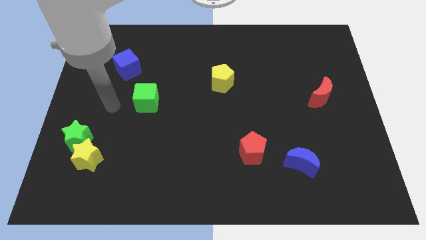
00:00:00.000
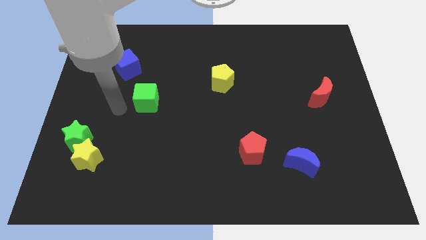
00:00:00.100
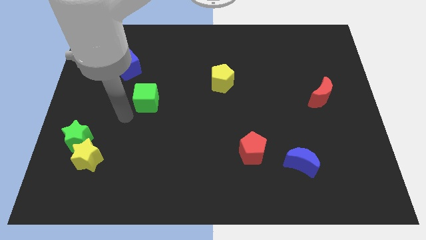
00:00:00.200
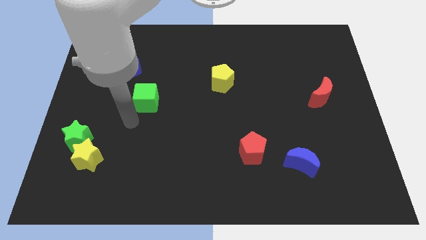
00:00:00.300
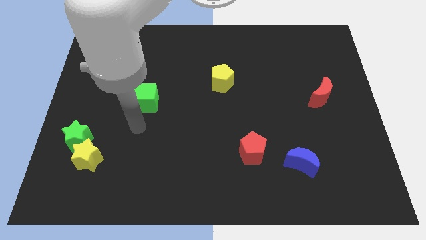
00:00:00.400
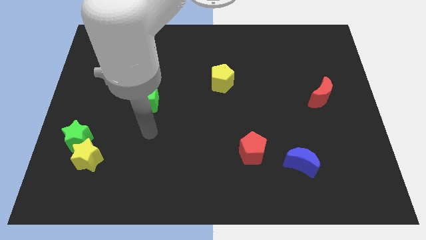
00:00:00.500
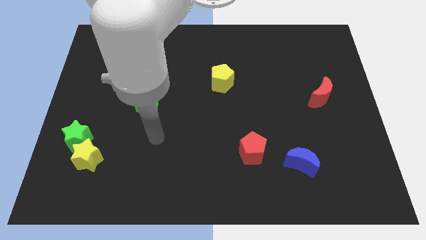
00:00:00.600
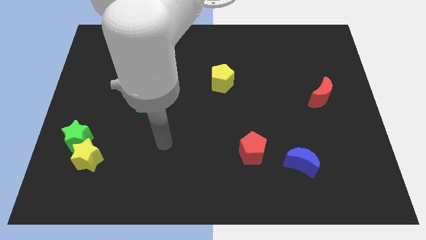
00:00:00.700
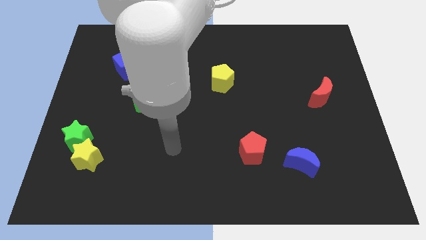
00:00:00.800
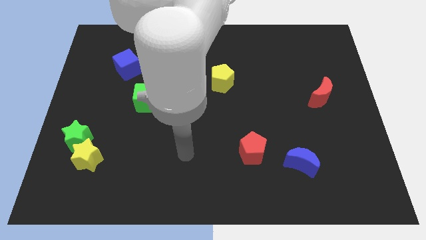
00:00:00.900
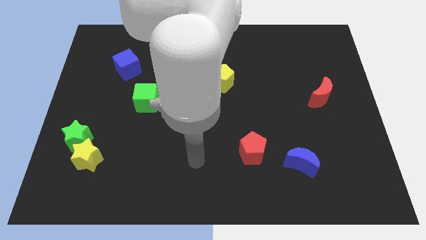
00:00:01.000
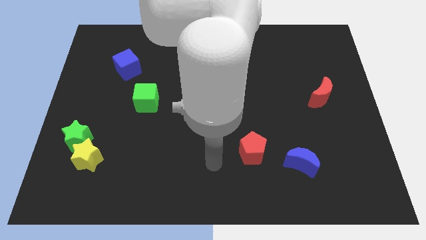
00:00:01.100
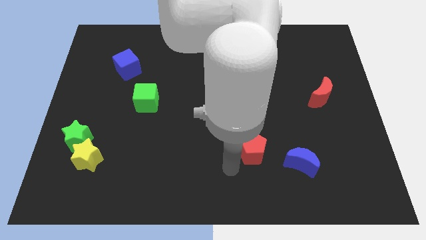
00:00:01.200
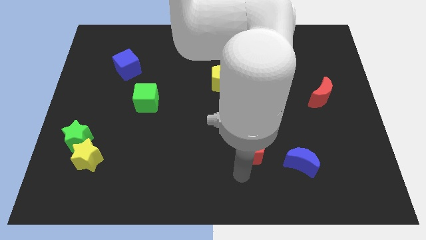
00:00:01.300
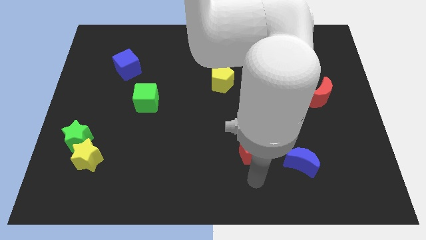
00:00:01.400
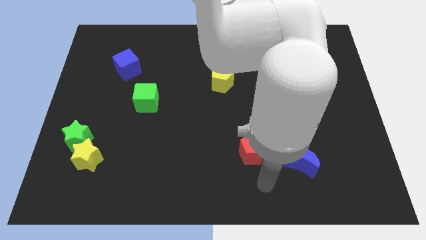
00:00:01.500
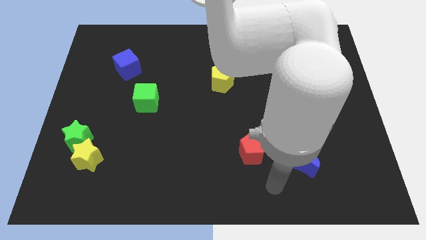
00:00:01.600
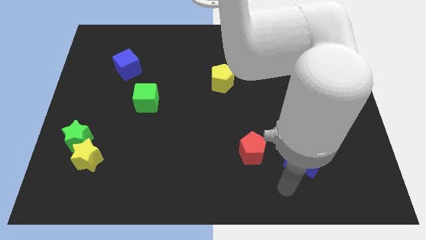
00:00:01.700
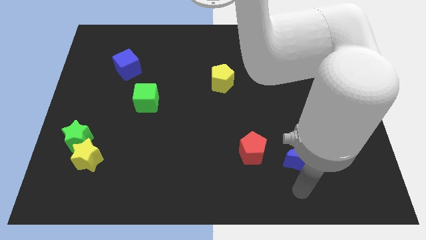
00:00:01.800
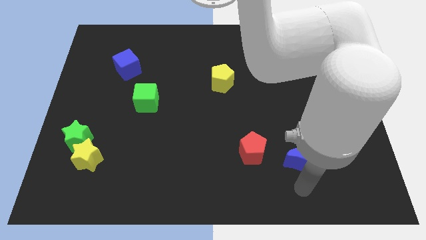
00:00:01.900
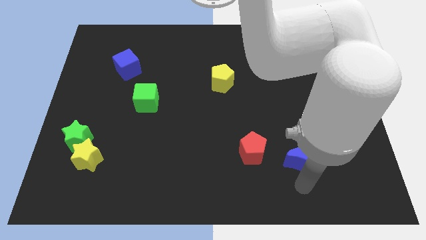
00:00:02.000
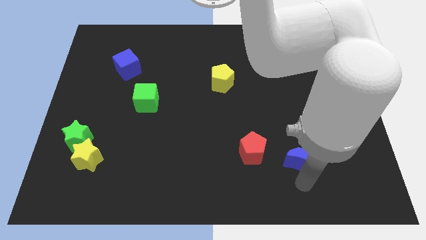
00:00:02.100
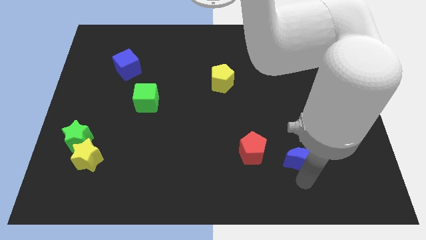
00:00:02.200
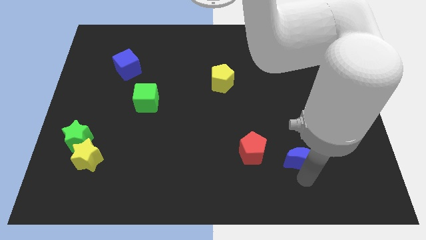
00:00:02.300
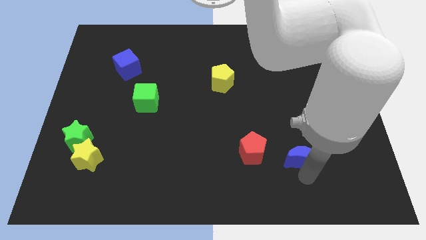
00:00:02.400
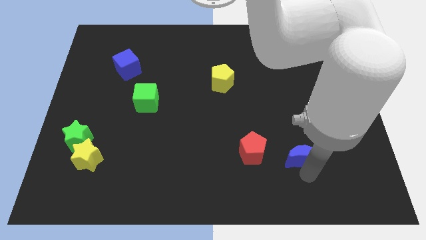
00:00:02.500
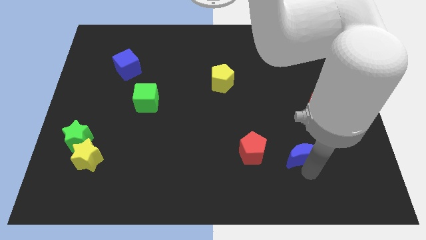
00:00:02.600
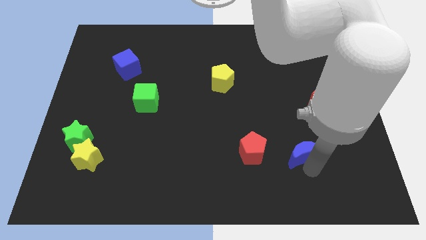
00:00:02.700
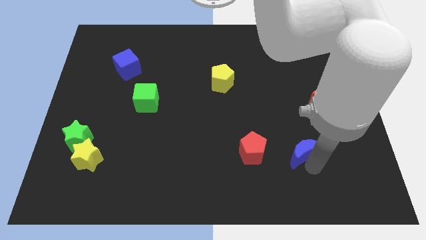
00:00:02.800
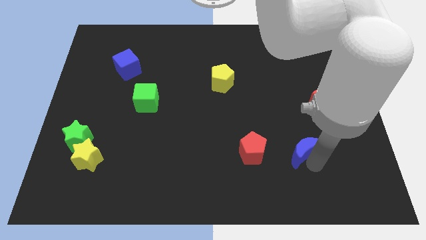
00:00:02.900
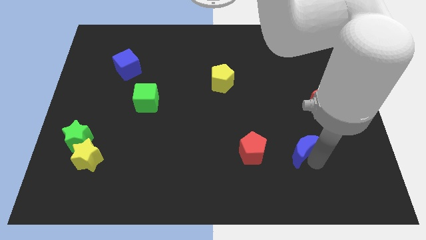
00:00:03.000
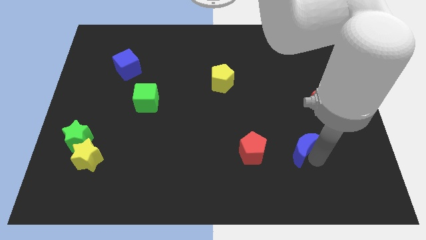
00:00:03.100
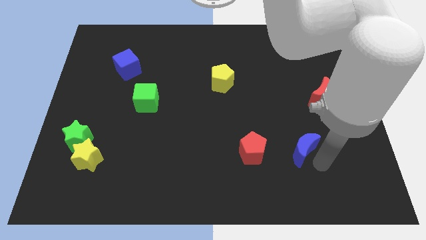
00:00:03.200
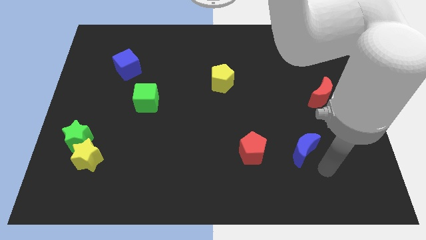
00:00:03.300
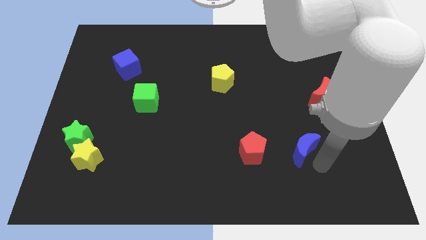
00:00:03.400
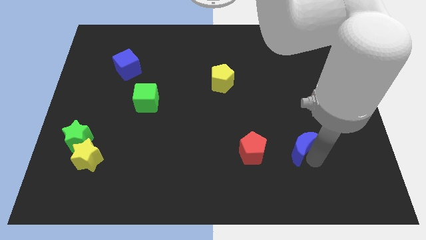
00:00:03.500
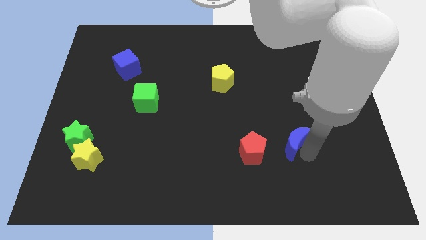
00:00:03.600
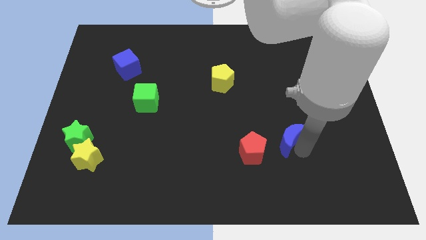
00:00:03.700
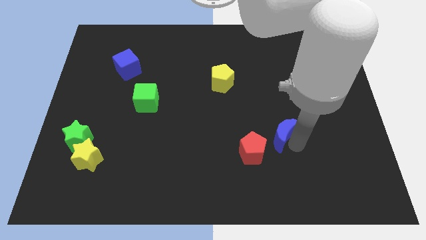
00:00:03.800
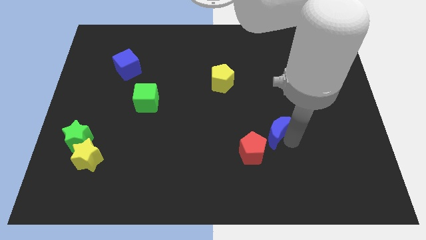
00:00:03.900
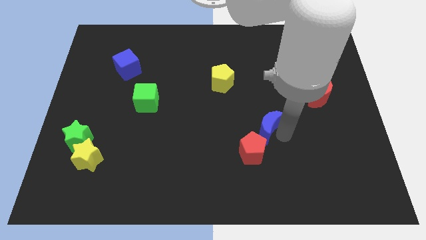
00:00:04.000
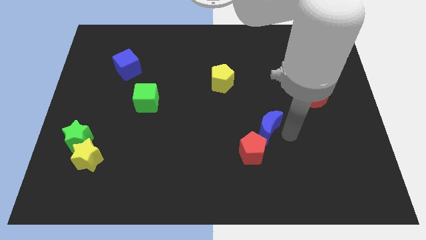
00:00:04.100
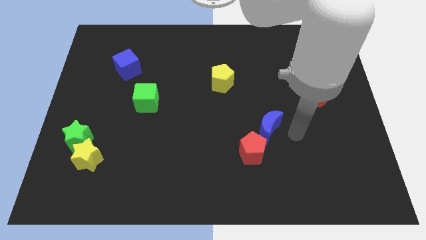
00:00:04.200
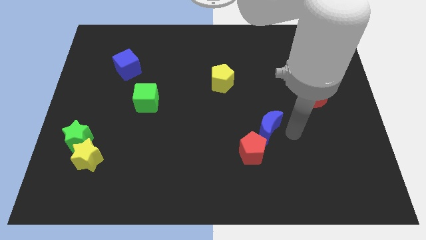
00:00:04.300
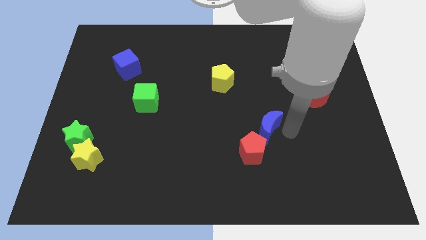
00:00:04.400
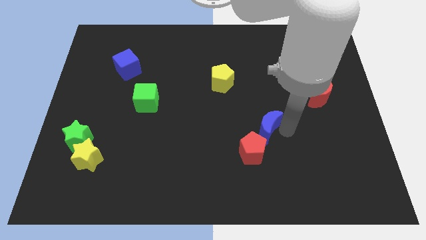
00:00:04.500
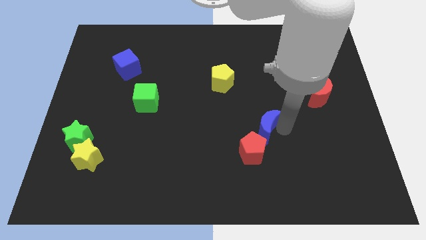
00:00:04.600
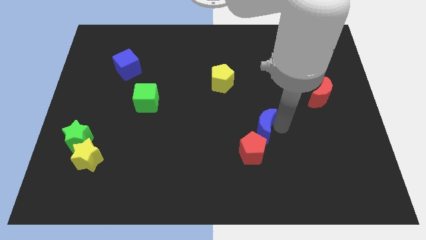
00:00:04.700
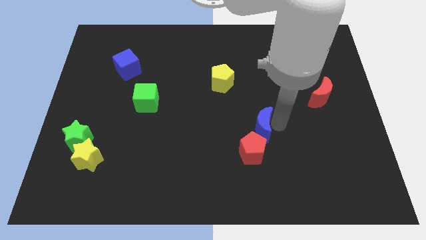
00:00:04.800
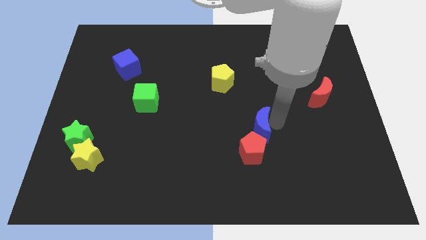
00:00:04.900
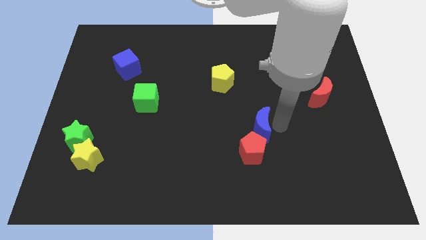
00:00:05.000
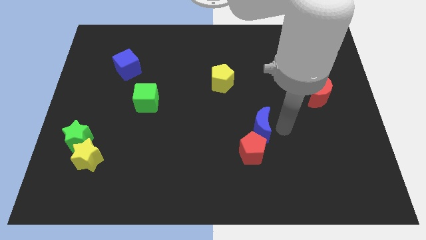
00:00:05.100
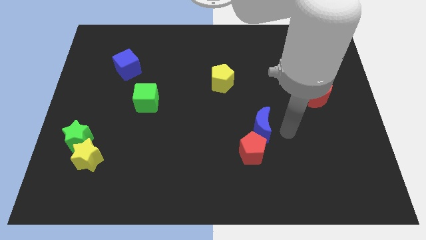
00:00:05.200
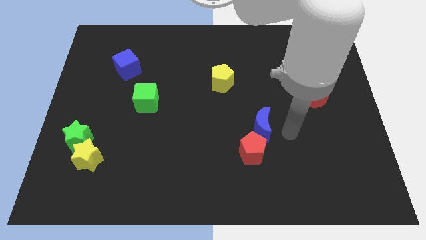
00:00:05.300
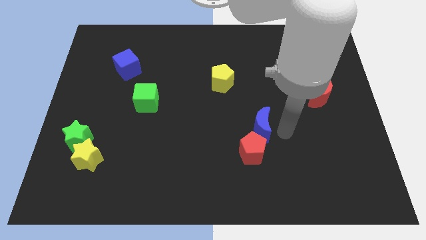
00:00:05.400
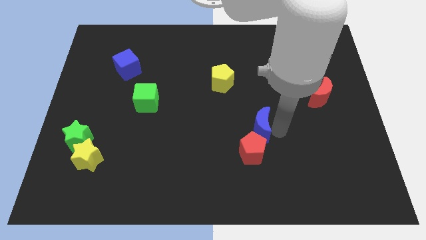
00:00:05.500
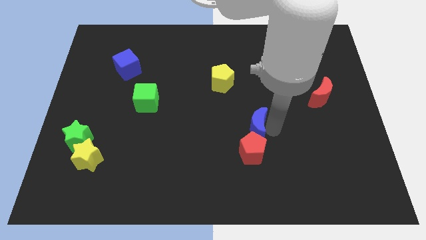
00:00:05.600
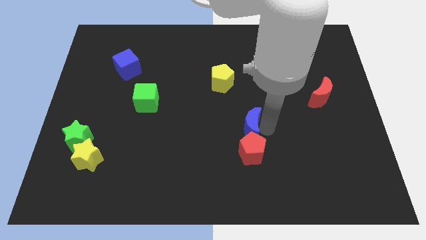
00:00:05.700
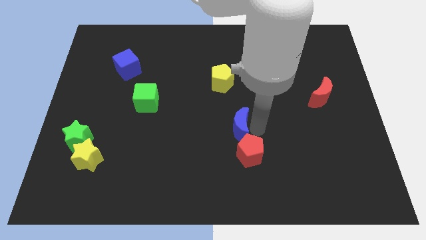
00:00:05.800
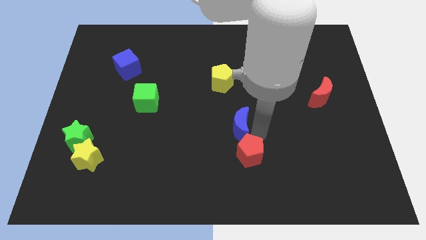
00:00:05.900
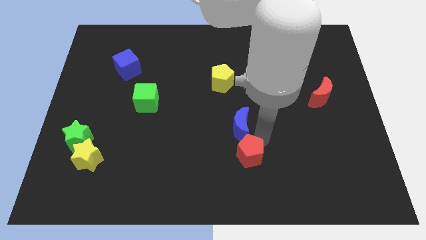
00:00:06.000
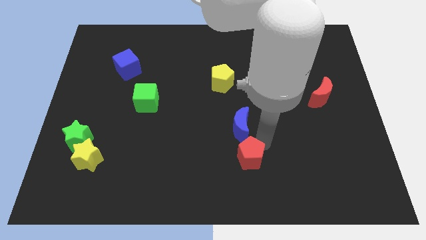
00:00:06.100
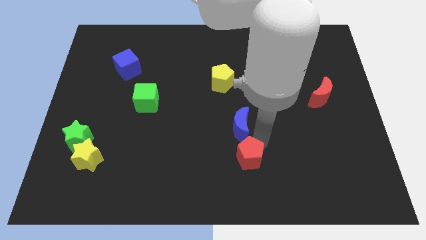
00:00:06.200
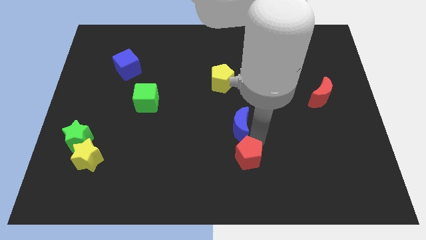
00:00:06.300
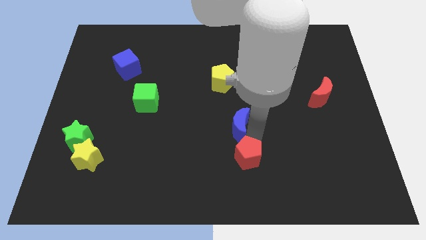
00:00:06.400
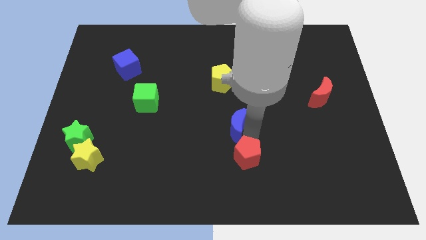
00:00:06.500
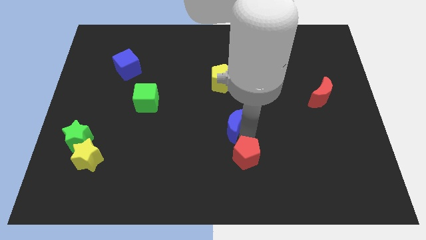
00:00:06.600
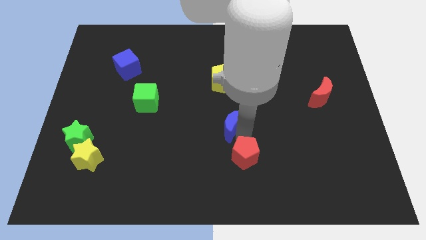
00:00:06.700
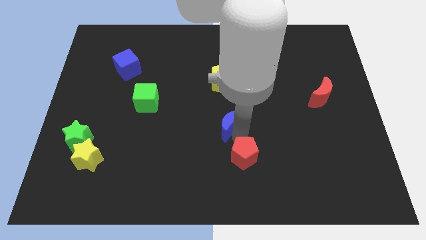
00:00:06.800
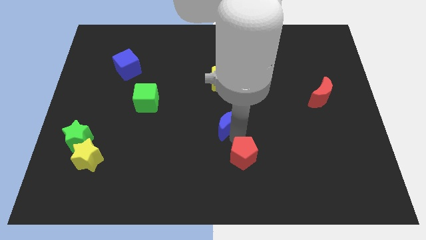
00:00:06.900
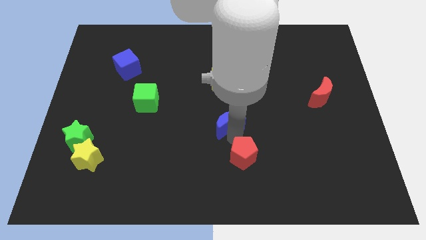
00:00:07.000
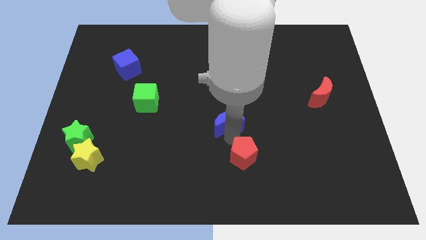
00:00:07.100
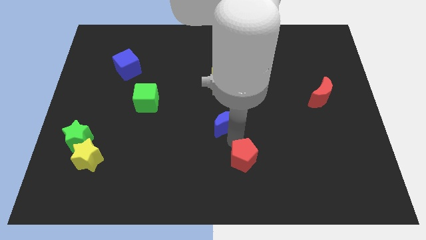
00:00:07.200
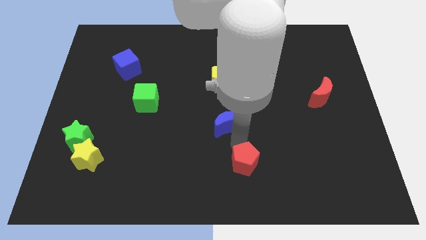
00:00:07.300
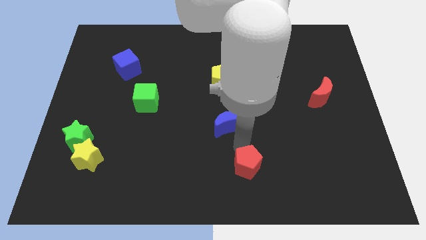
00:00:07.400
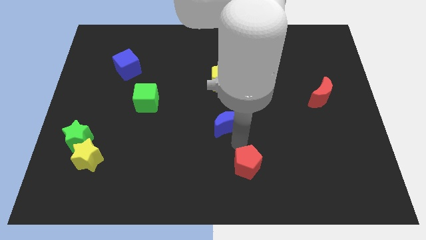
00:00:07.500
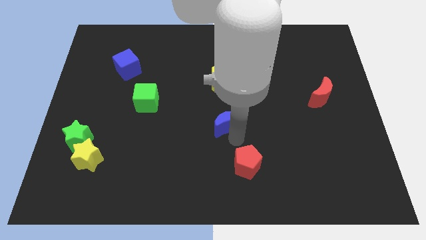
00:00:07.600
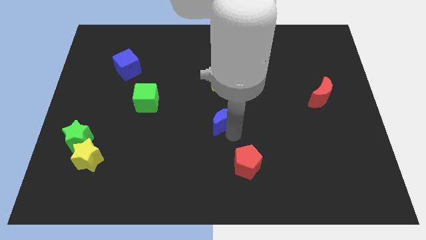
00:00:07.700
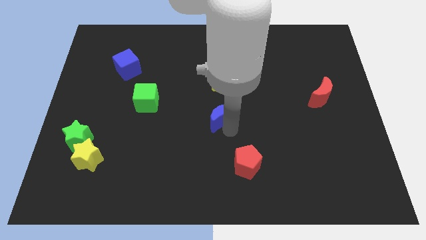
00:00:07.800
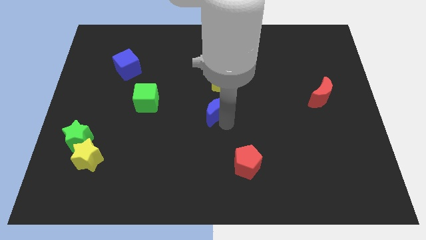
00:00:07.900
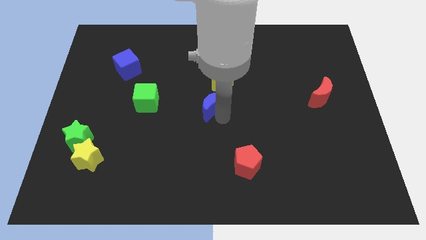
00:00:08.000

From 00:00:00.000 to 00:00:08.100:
put the blue moon diagonally down and to the left of the yellow pentagon
